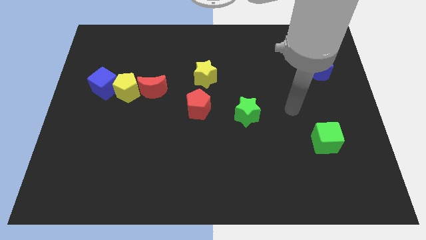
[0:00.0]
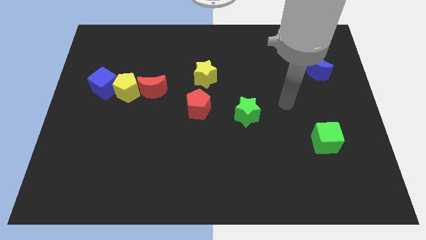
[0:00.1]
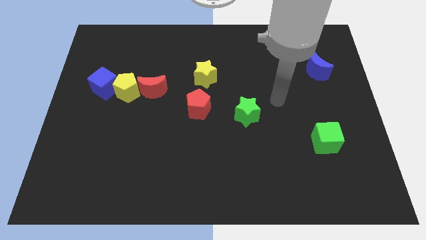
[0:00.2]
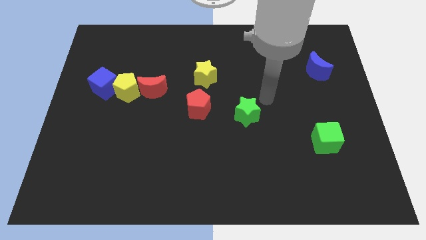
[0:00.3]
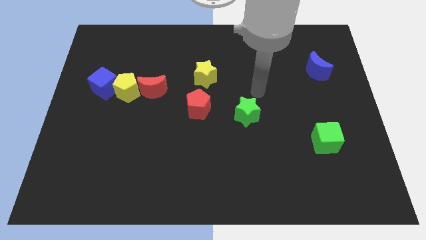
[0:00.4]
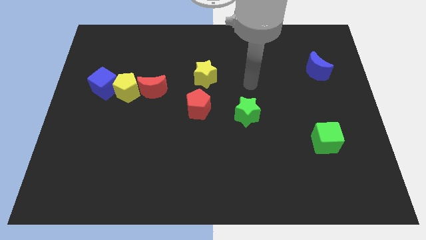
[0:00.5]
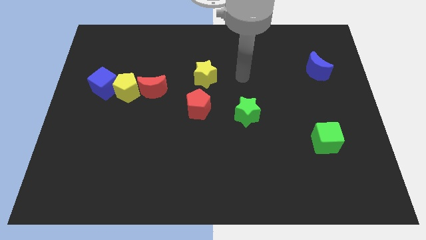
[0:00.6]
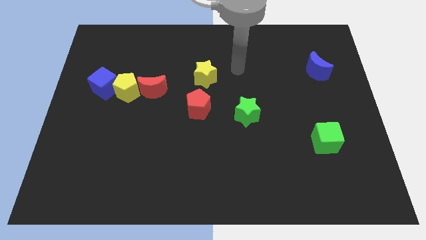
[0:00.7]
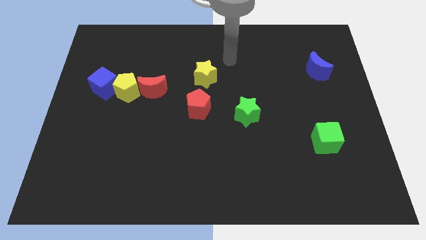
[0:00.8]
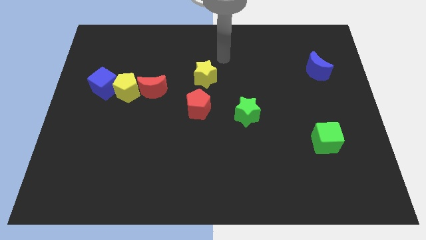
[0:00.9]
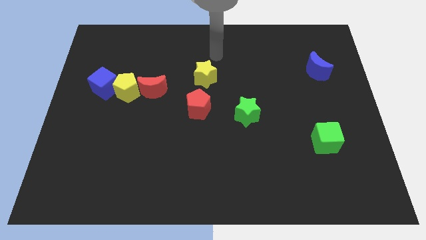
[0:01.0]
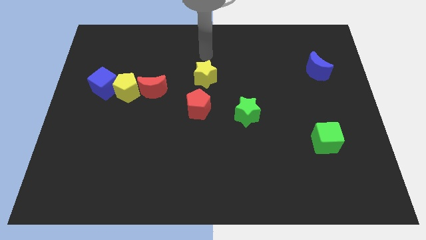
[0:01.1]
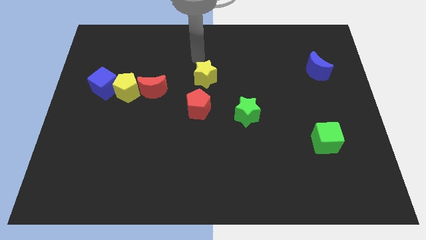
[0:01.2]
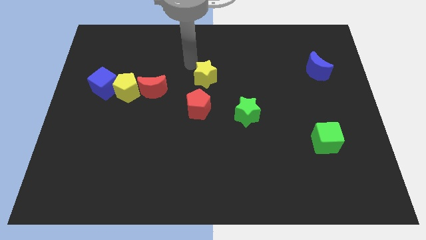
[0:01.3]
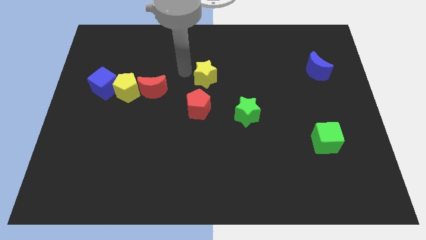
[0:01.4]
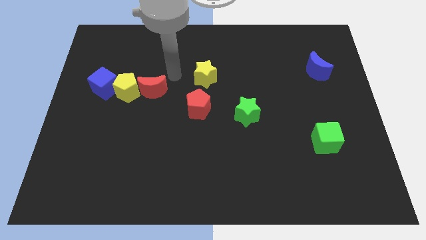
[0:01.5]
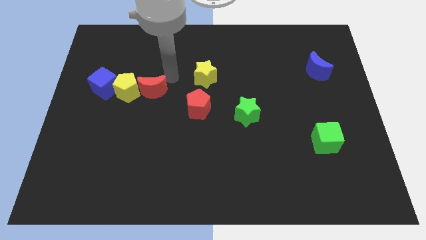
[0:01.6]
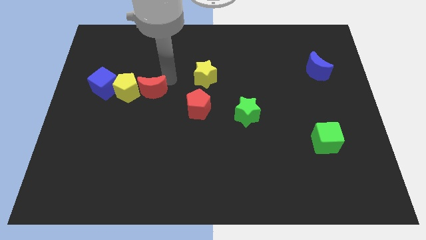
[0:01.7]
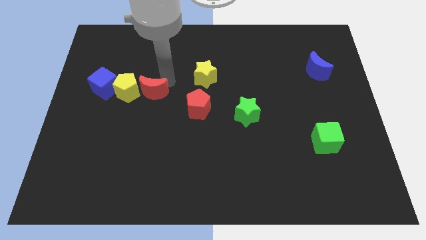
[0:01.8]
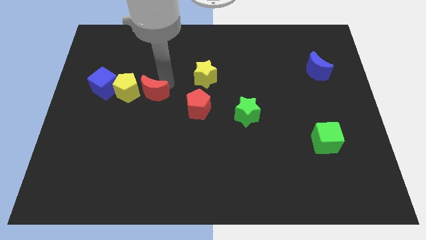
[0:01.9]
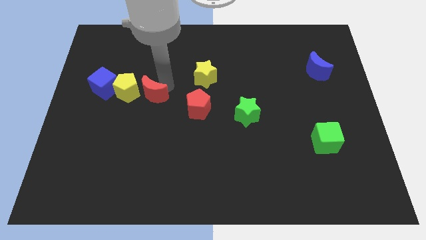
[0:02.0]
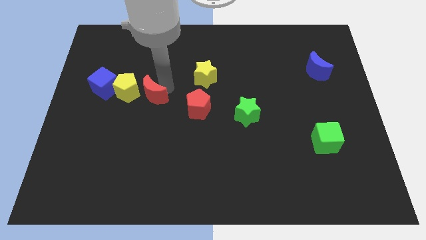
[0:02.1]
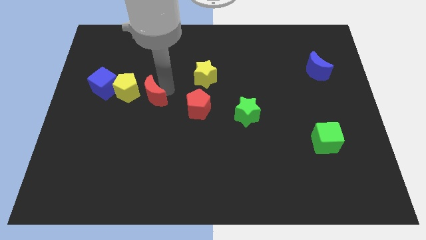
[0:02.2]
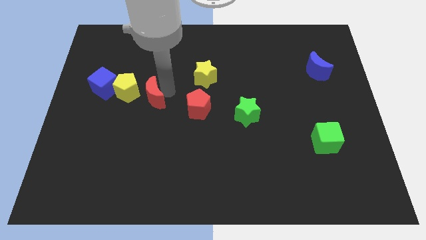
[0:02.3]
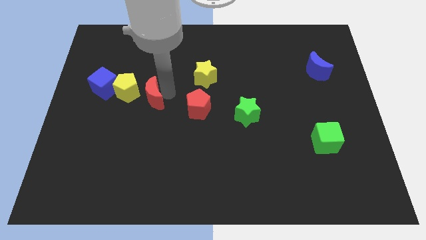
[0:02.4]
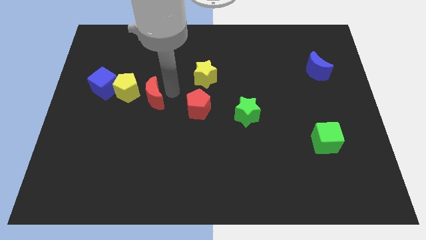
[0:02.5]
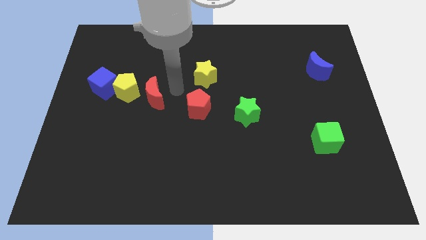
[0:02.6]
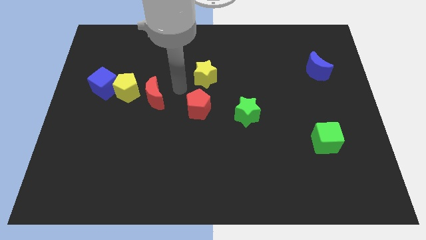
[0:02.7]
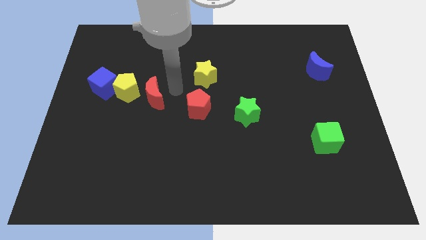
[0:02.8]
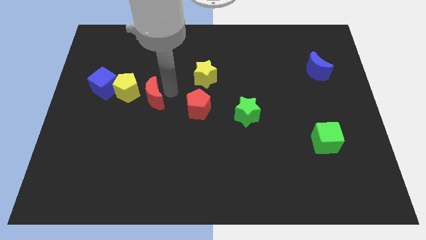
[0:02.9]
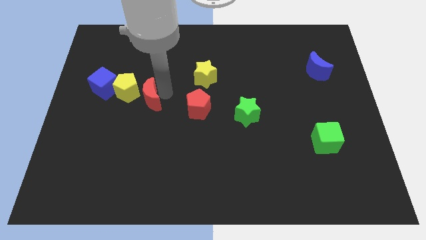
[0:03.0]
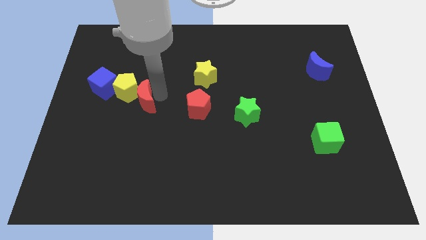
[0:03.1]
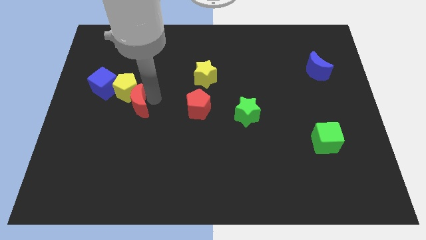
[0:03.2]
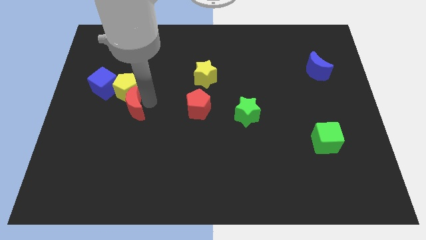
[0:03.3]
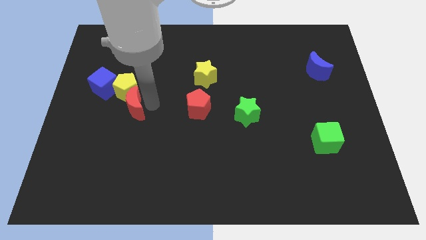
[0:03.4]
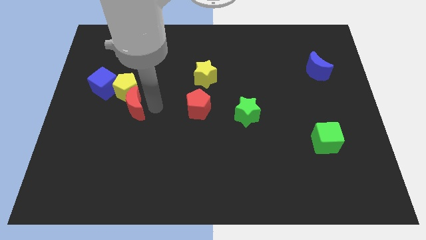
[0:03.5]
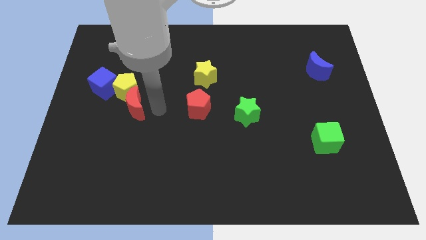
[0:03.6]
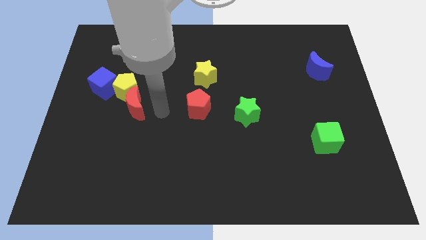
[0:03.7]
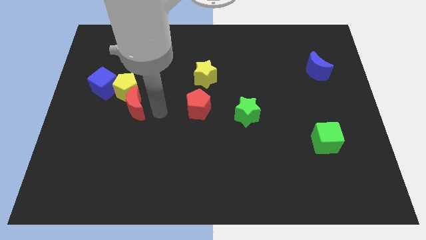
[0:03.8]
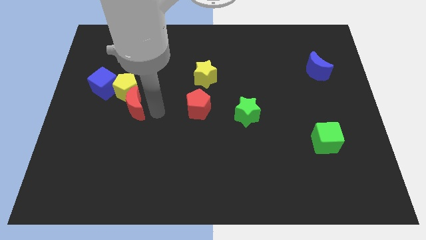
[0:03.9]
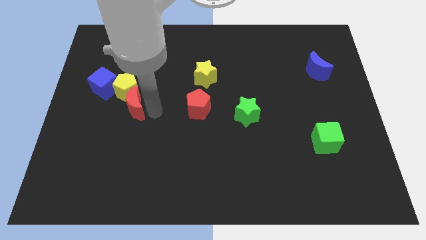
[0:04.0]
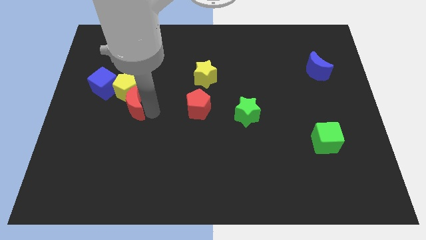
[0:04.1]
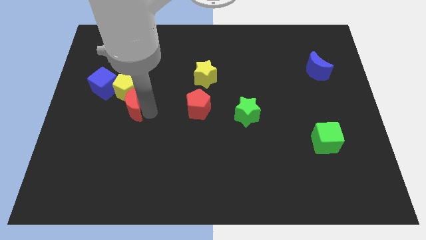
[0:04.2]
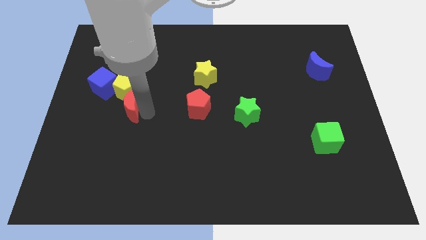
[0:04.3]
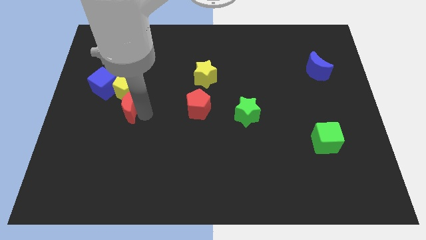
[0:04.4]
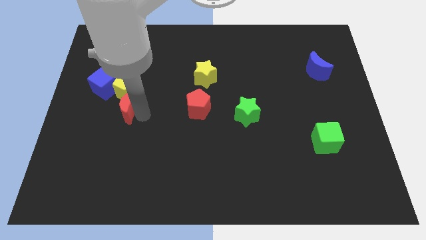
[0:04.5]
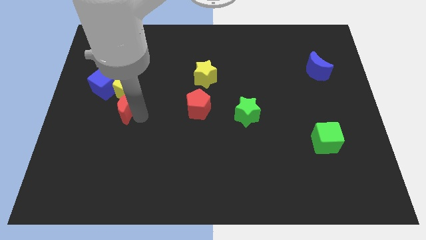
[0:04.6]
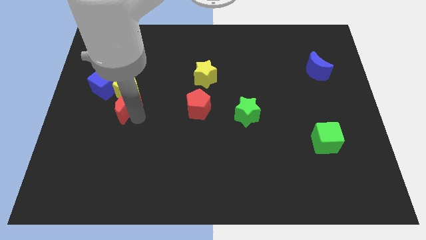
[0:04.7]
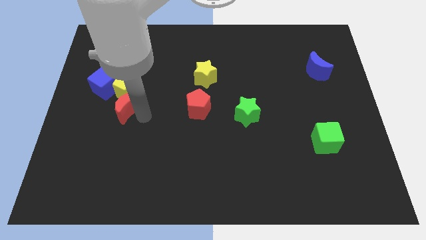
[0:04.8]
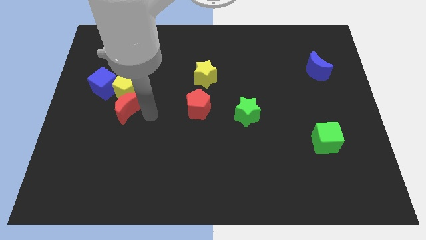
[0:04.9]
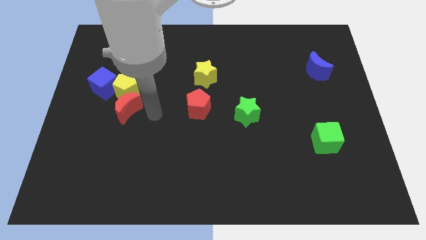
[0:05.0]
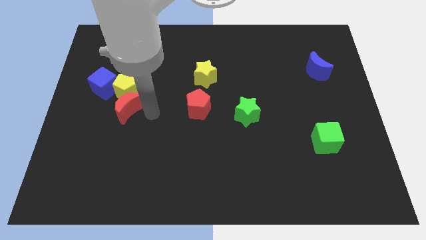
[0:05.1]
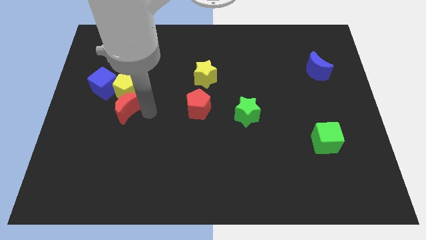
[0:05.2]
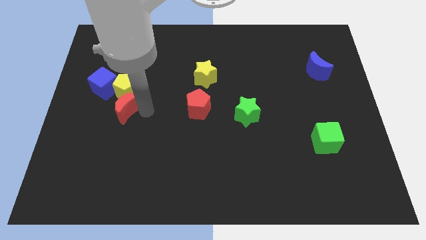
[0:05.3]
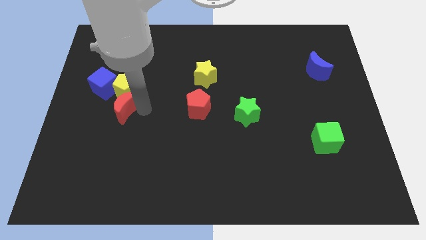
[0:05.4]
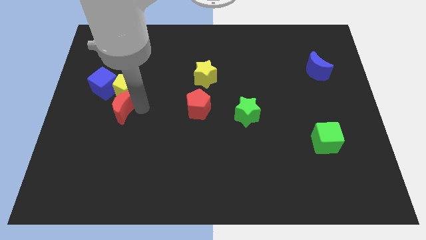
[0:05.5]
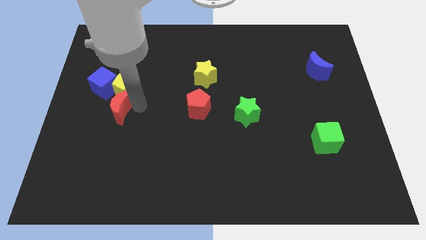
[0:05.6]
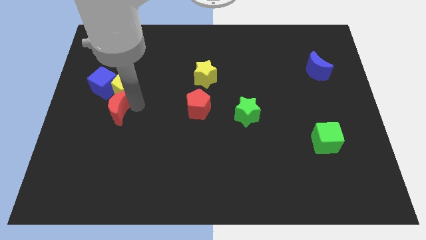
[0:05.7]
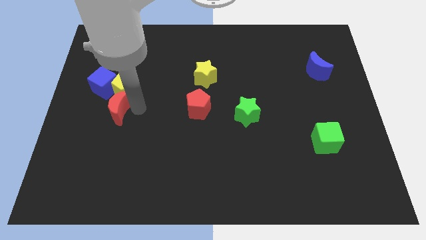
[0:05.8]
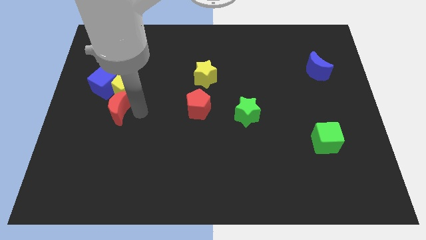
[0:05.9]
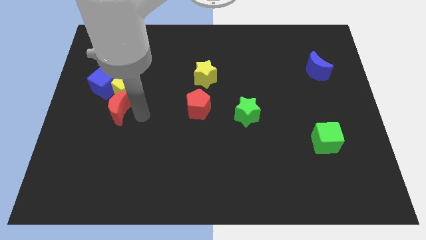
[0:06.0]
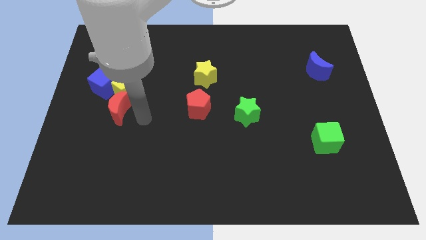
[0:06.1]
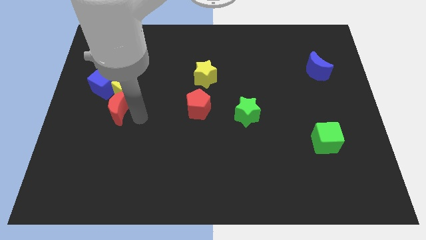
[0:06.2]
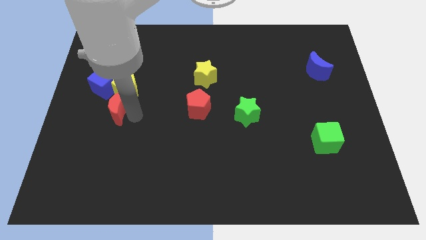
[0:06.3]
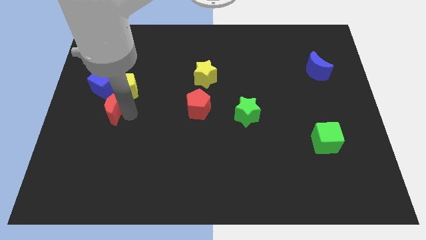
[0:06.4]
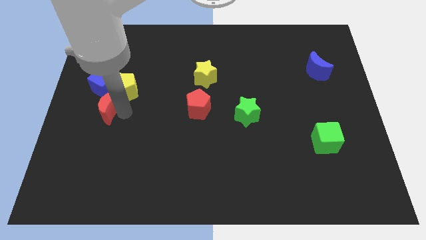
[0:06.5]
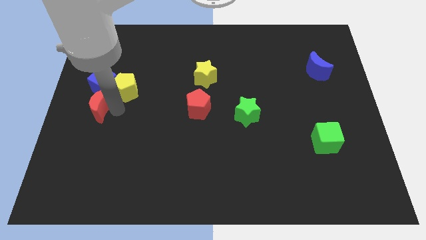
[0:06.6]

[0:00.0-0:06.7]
slide the red moon to the left side

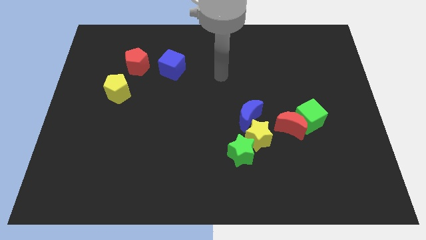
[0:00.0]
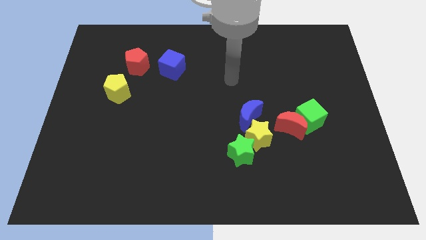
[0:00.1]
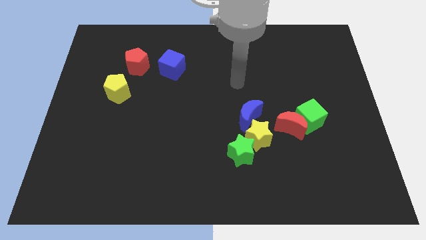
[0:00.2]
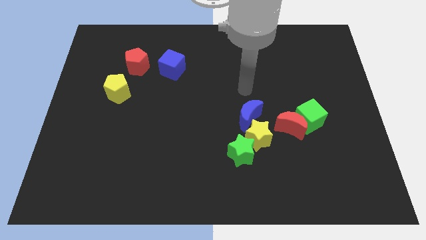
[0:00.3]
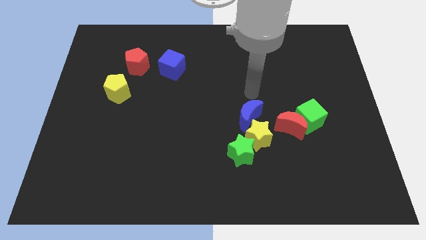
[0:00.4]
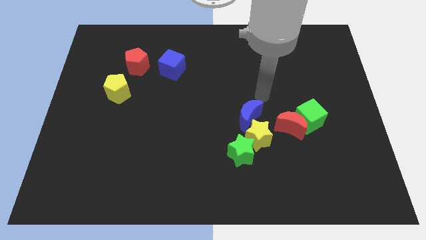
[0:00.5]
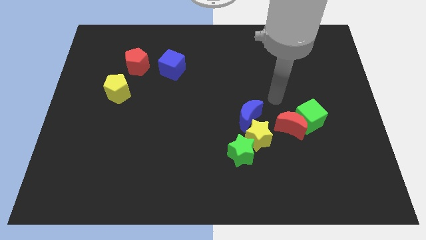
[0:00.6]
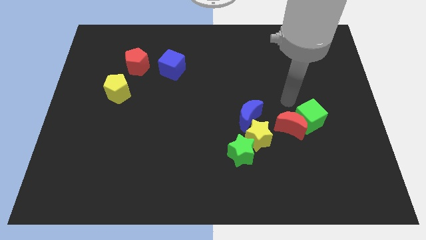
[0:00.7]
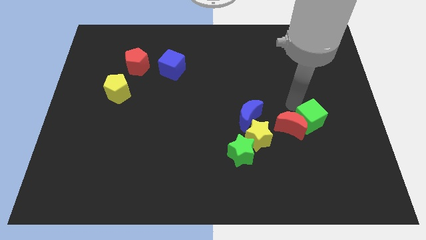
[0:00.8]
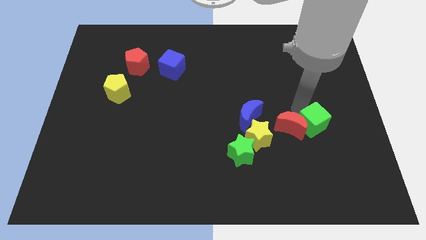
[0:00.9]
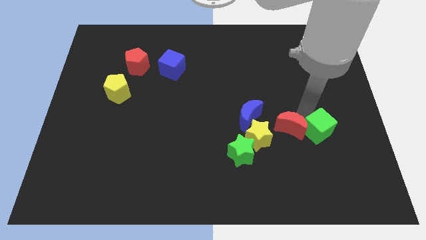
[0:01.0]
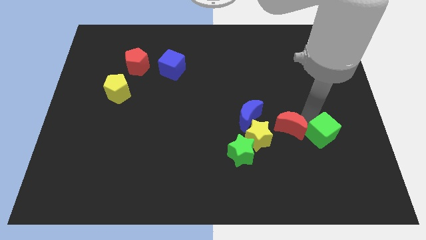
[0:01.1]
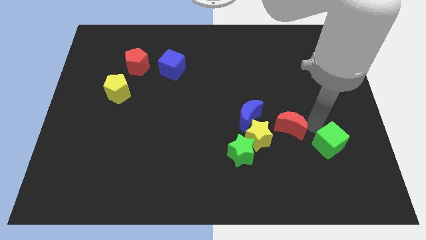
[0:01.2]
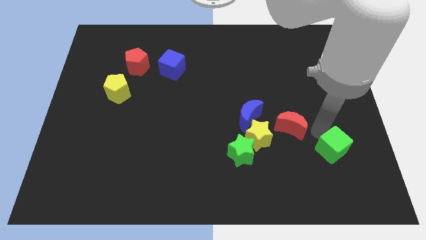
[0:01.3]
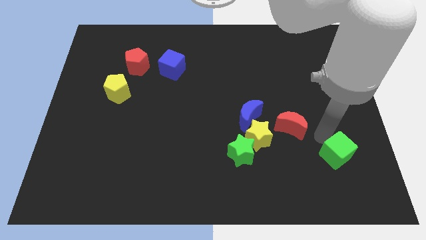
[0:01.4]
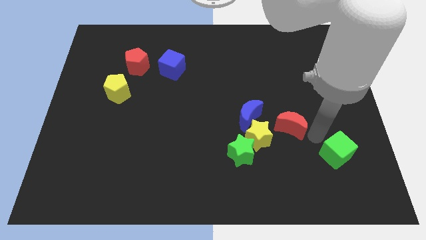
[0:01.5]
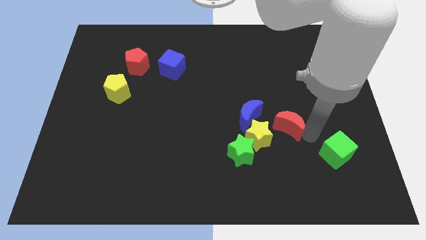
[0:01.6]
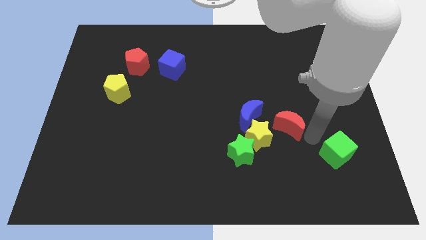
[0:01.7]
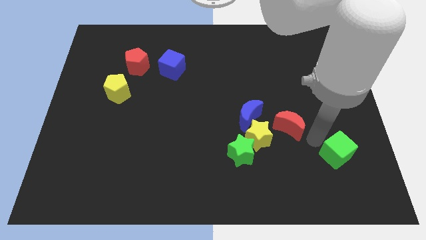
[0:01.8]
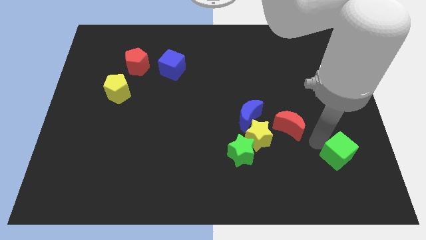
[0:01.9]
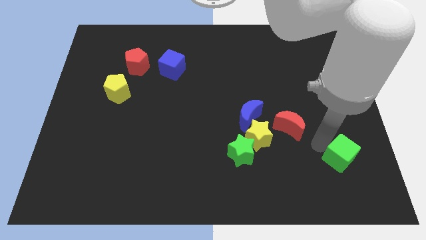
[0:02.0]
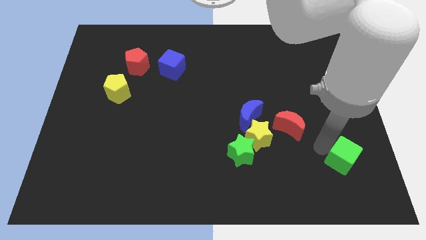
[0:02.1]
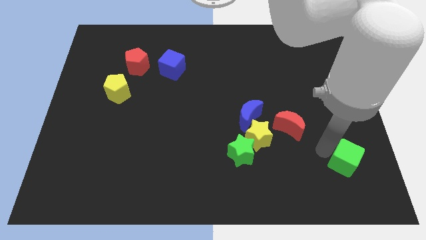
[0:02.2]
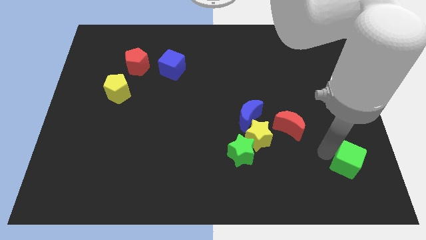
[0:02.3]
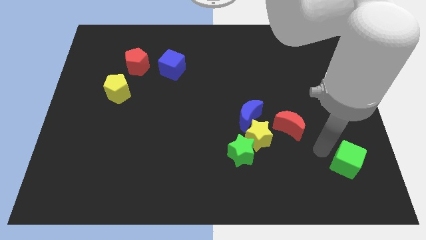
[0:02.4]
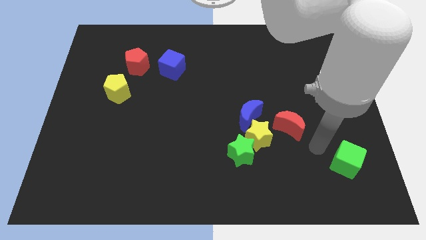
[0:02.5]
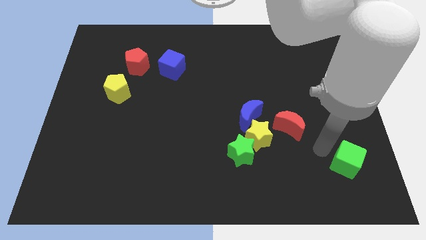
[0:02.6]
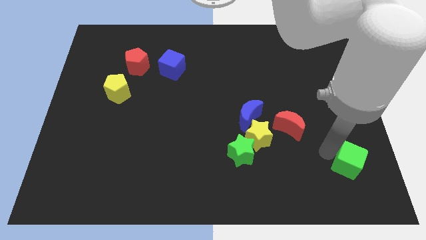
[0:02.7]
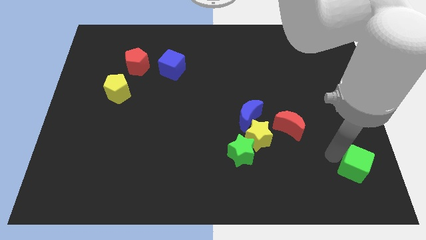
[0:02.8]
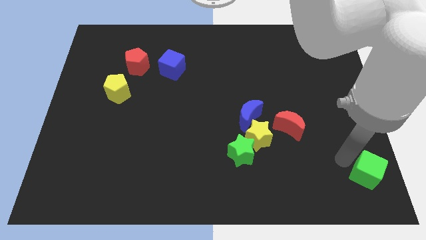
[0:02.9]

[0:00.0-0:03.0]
slide the green cube to the bottom right of the board
